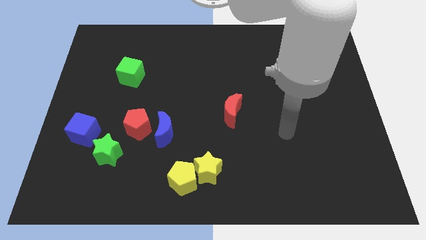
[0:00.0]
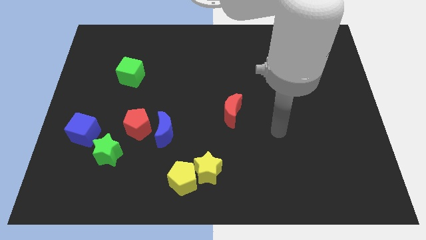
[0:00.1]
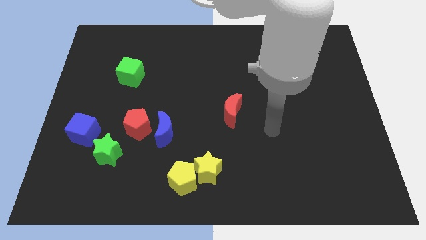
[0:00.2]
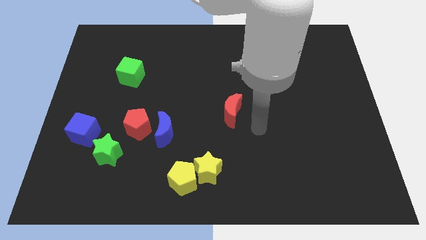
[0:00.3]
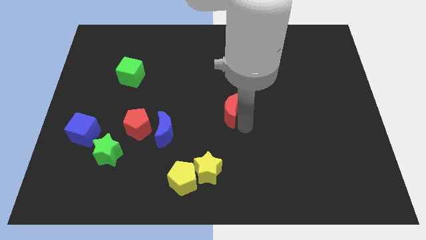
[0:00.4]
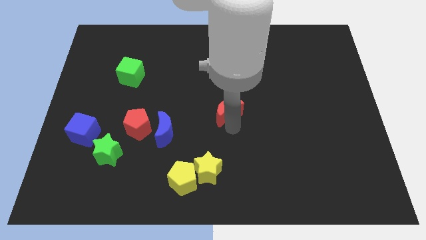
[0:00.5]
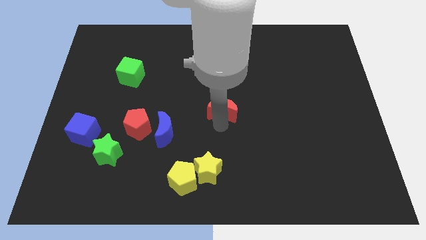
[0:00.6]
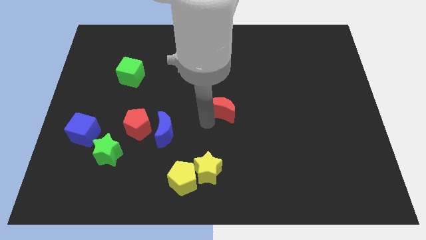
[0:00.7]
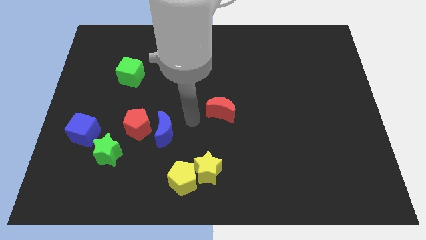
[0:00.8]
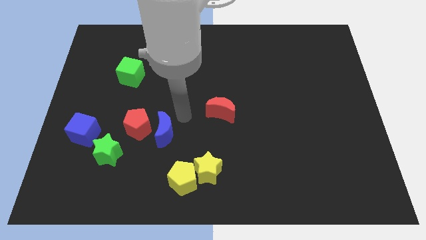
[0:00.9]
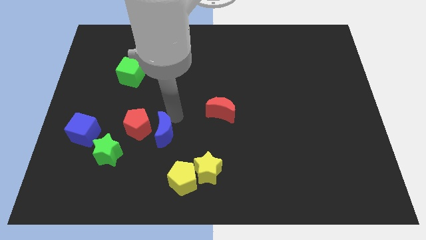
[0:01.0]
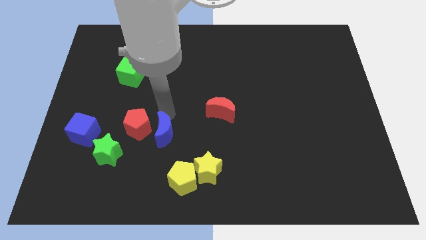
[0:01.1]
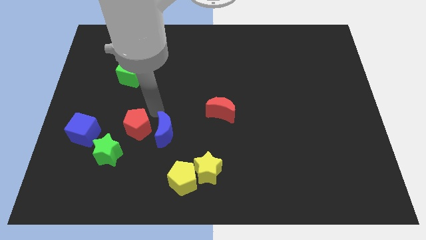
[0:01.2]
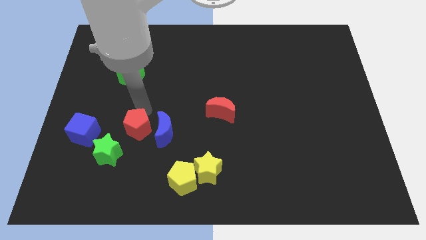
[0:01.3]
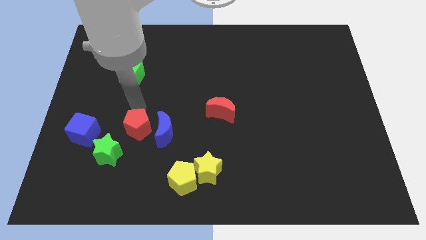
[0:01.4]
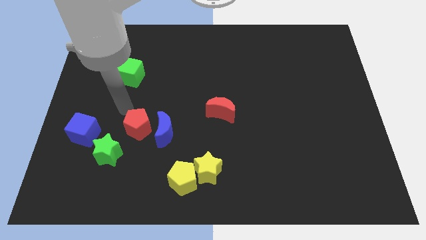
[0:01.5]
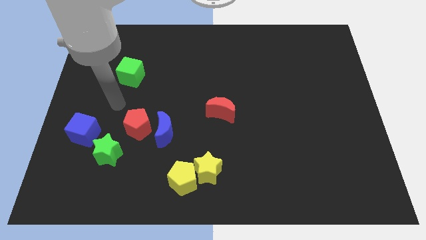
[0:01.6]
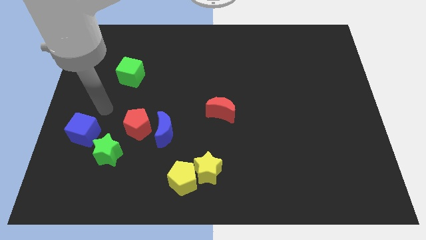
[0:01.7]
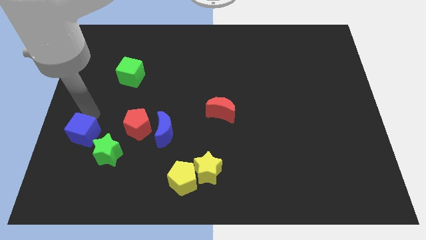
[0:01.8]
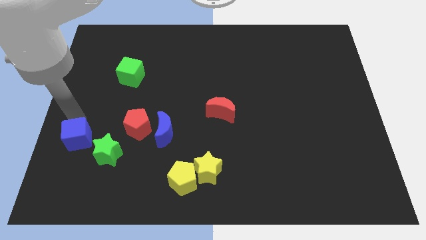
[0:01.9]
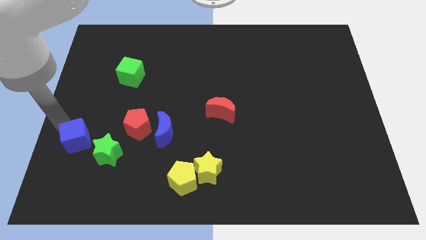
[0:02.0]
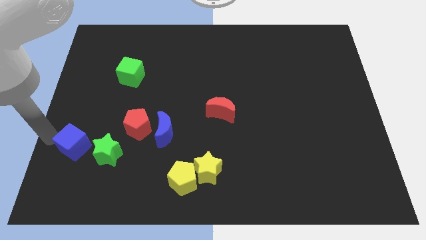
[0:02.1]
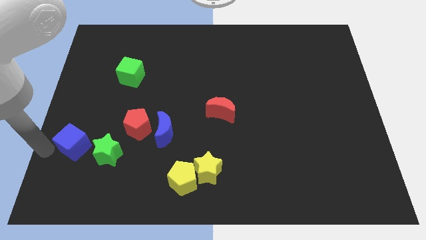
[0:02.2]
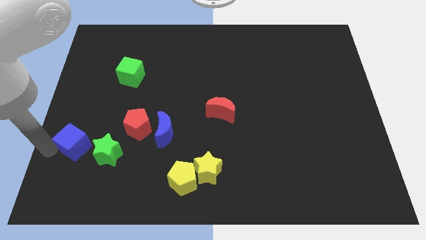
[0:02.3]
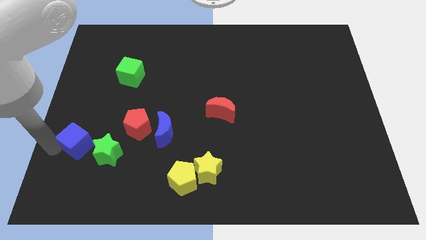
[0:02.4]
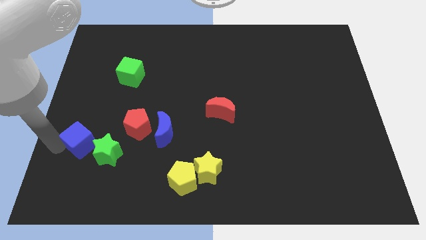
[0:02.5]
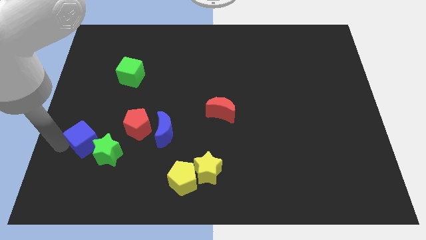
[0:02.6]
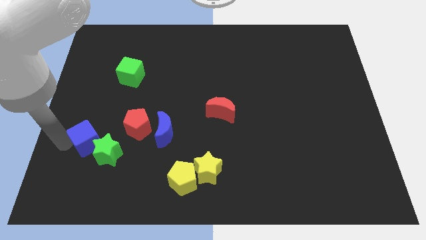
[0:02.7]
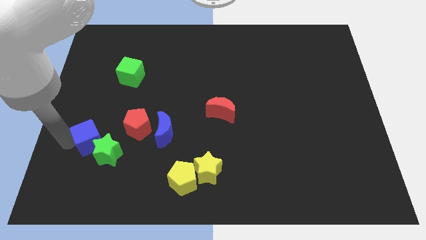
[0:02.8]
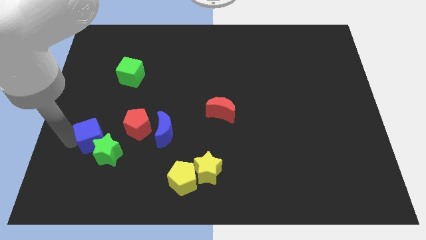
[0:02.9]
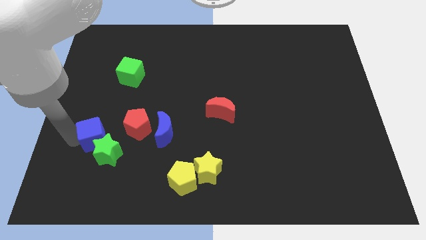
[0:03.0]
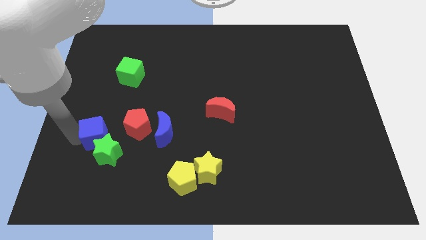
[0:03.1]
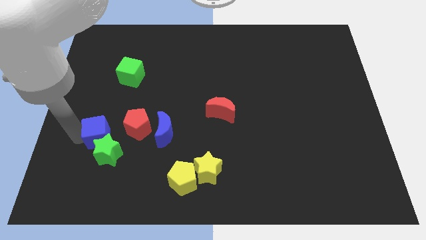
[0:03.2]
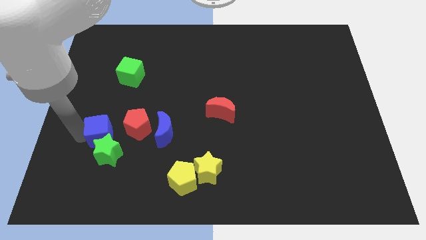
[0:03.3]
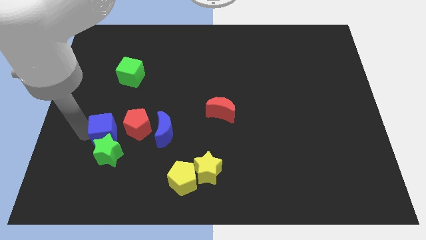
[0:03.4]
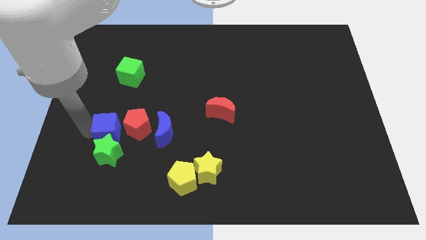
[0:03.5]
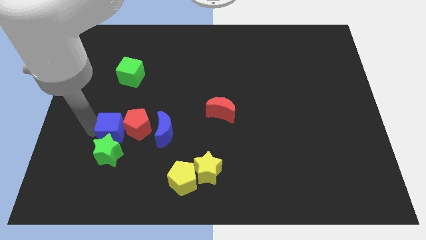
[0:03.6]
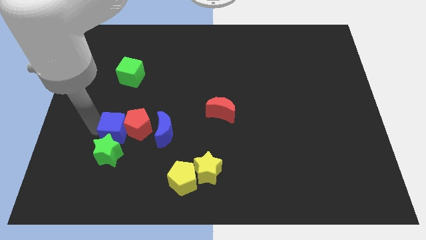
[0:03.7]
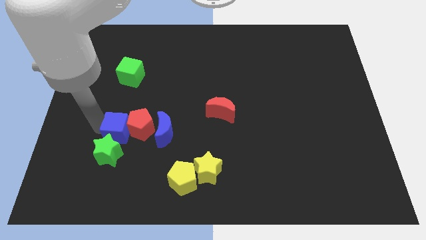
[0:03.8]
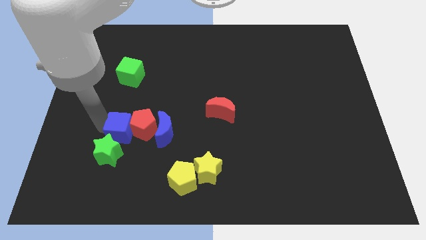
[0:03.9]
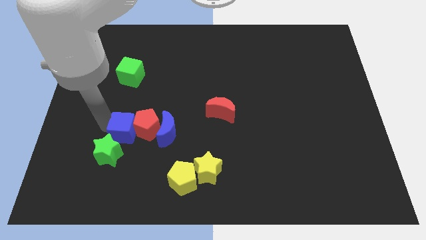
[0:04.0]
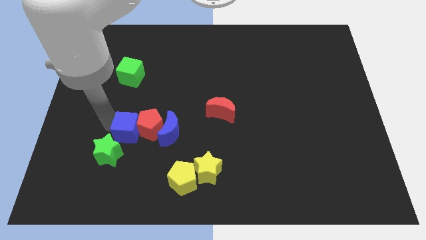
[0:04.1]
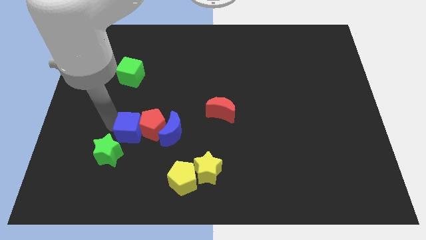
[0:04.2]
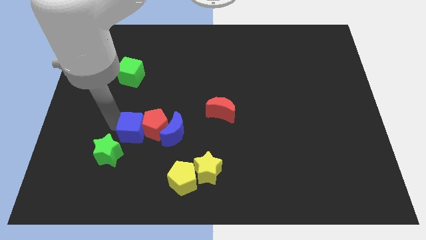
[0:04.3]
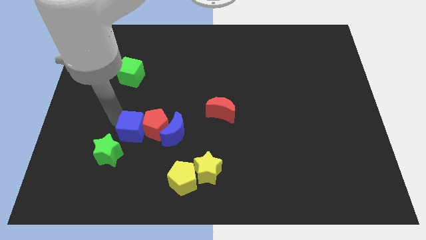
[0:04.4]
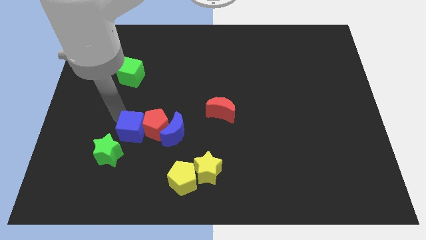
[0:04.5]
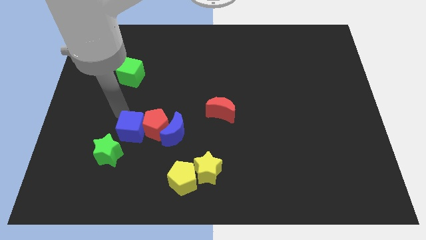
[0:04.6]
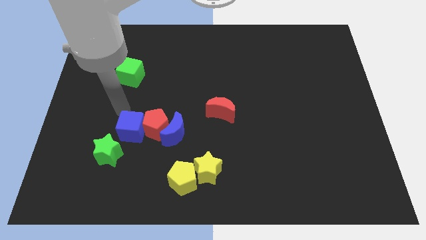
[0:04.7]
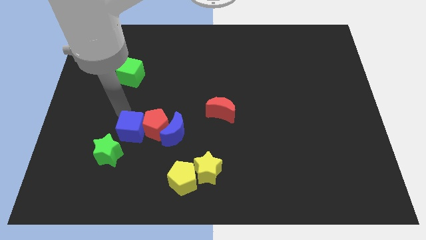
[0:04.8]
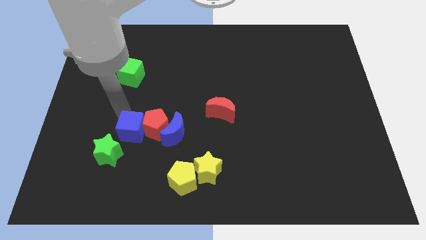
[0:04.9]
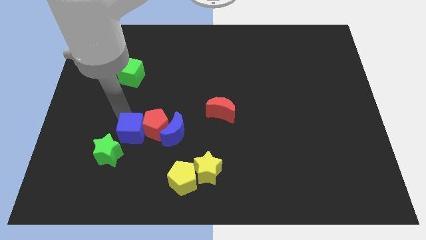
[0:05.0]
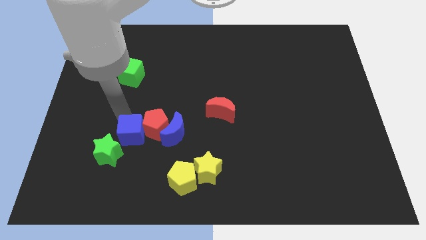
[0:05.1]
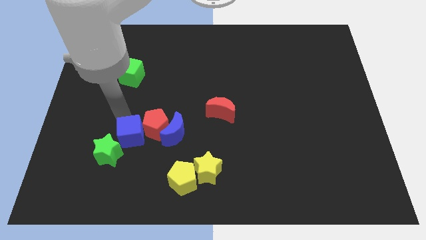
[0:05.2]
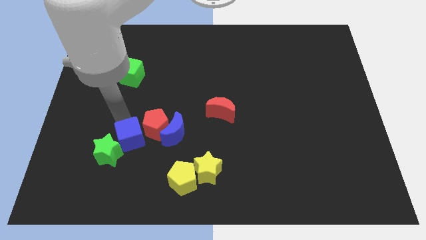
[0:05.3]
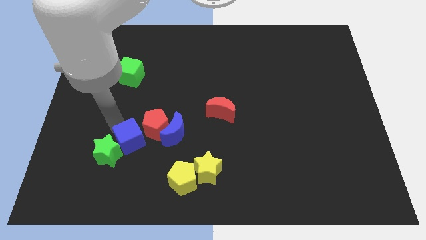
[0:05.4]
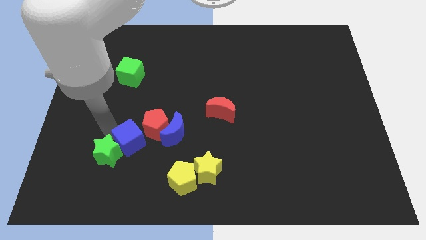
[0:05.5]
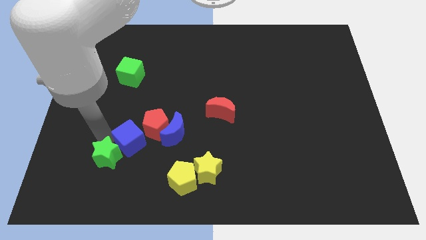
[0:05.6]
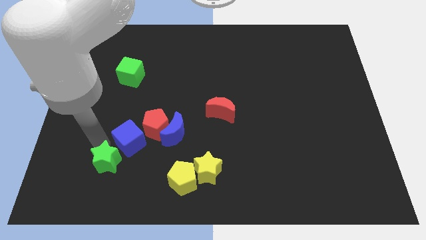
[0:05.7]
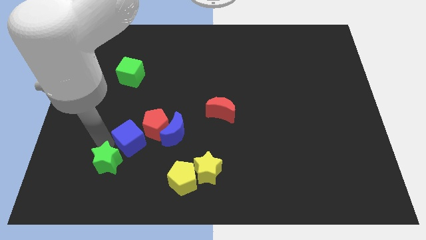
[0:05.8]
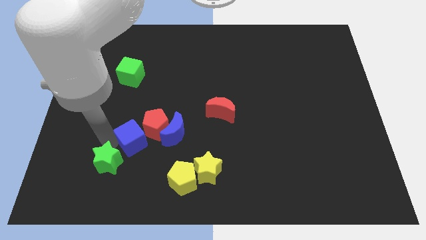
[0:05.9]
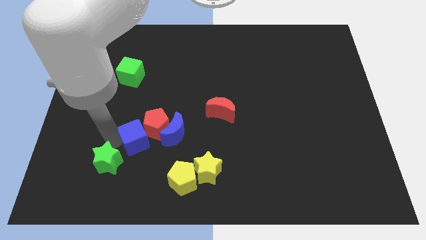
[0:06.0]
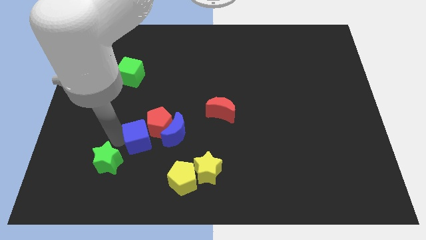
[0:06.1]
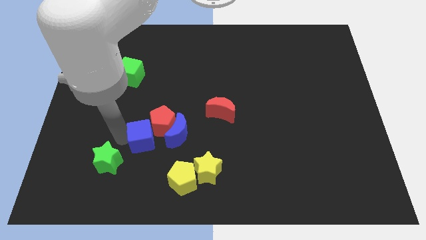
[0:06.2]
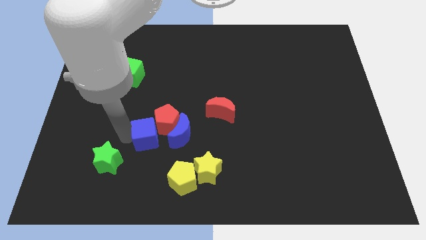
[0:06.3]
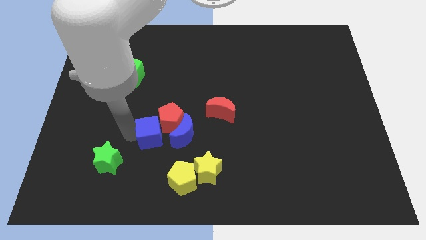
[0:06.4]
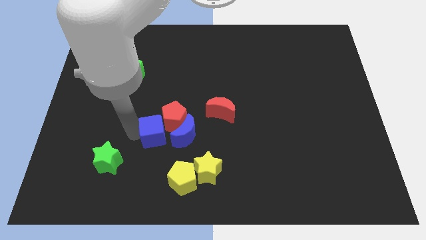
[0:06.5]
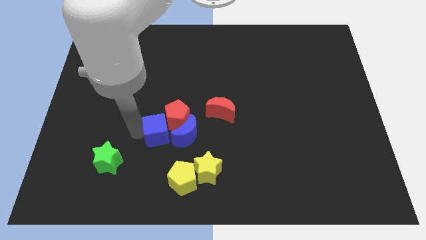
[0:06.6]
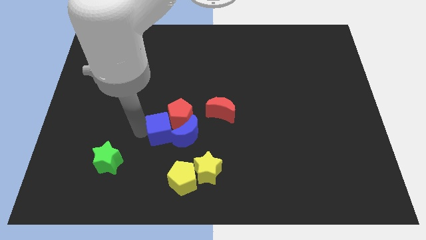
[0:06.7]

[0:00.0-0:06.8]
push the blue cube close to the blue moon

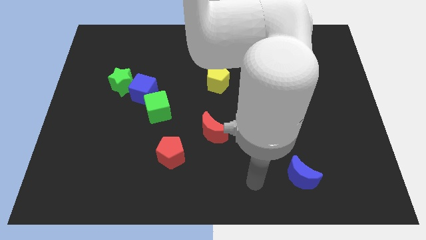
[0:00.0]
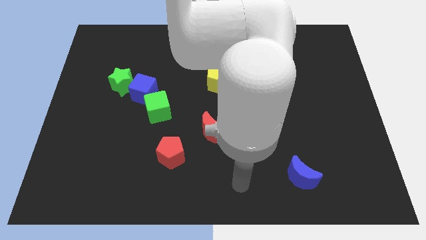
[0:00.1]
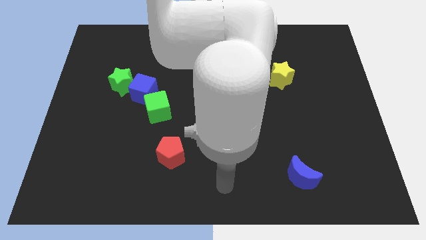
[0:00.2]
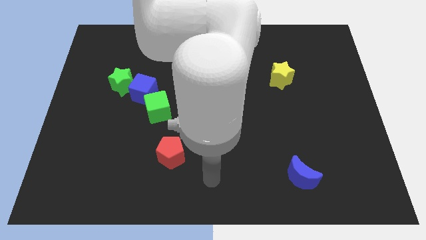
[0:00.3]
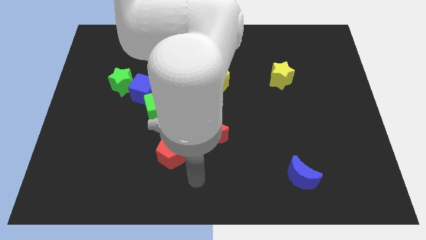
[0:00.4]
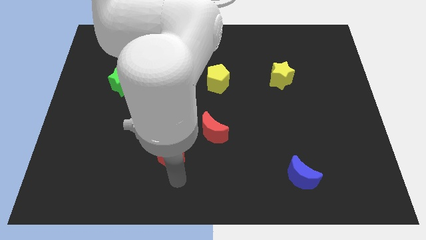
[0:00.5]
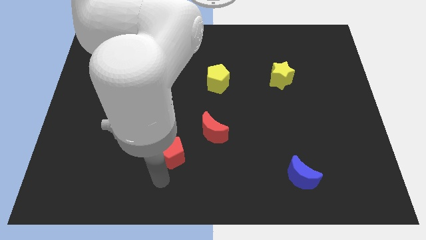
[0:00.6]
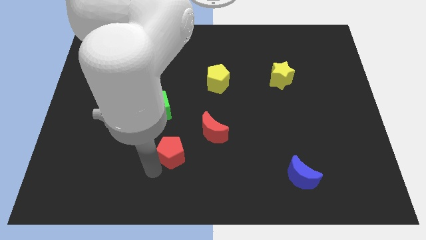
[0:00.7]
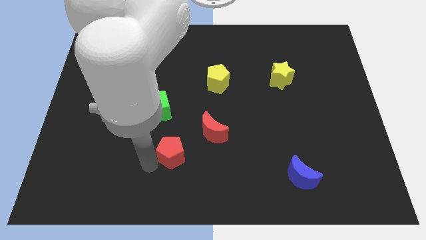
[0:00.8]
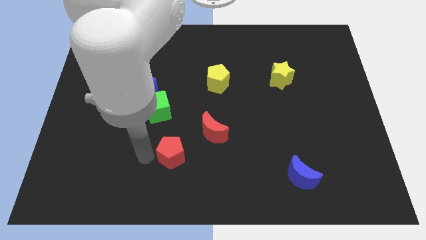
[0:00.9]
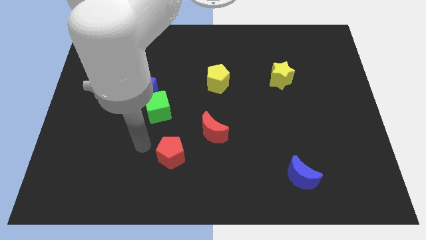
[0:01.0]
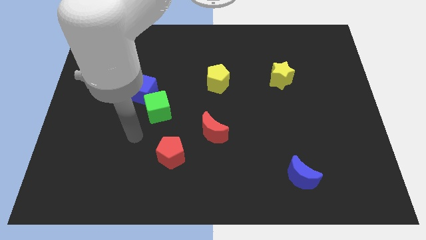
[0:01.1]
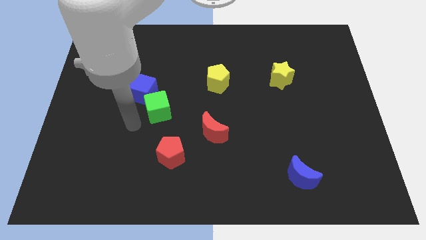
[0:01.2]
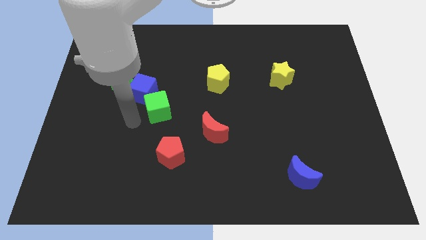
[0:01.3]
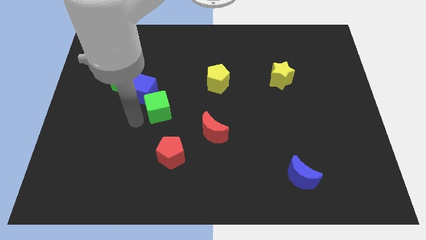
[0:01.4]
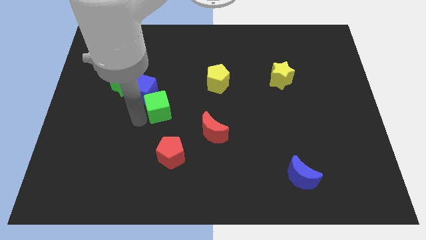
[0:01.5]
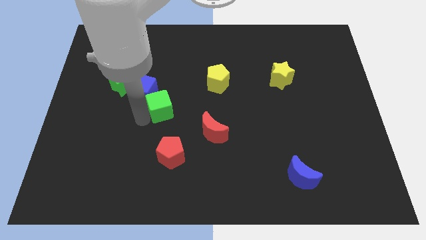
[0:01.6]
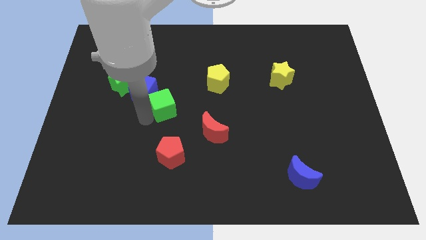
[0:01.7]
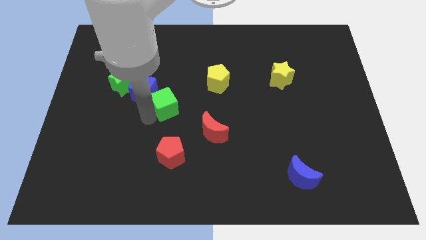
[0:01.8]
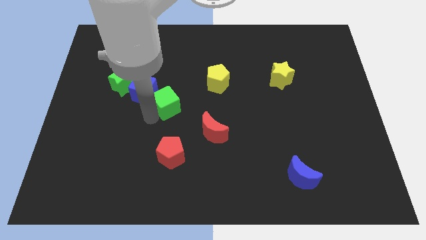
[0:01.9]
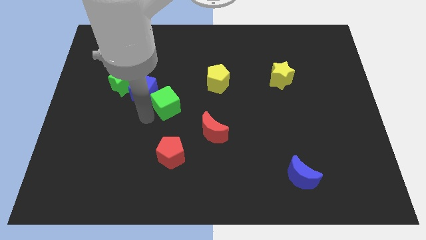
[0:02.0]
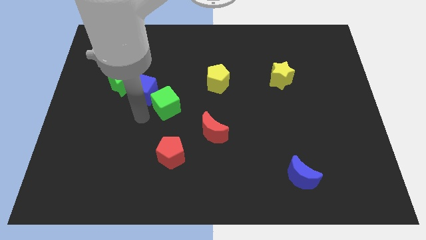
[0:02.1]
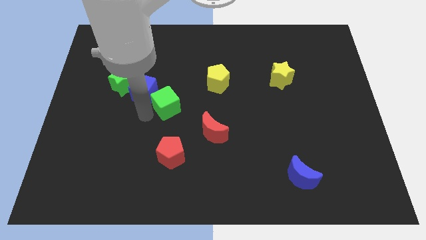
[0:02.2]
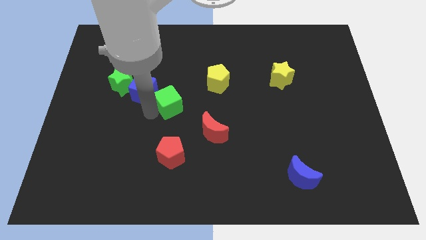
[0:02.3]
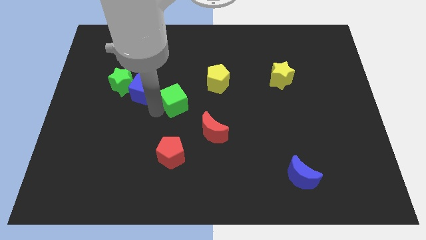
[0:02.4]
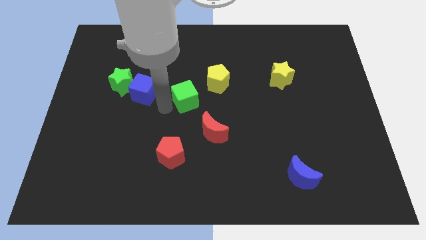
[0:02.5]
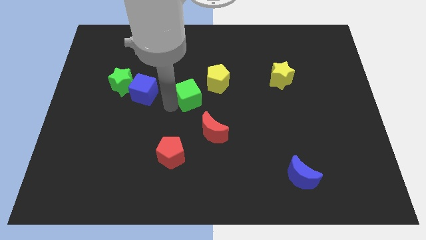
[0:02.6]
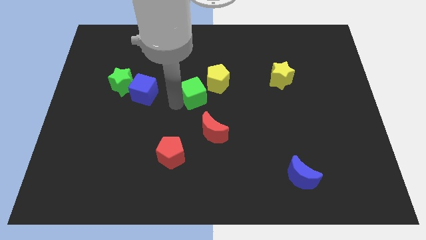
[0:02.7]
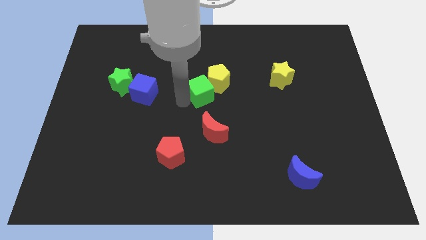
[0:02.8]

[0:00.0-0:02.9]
move the green cube next to the yellow pentagon
